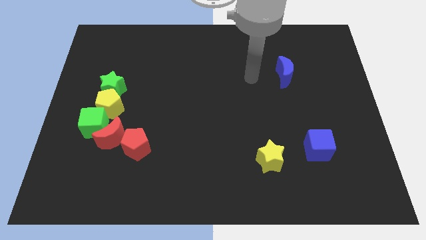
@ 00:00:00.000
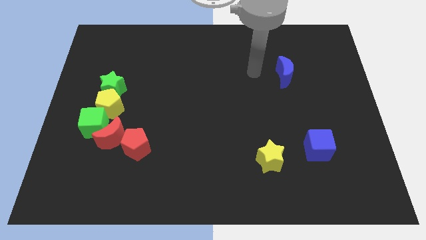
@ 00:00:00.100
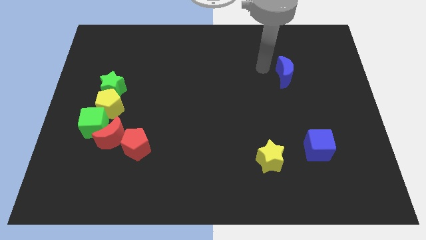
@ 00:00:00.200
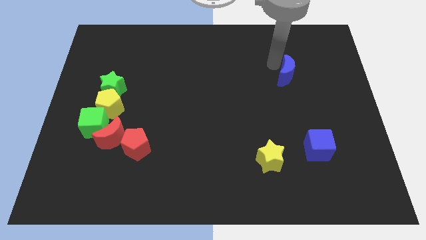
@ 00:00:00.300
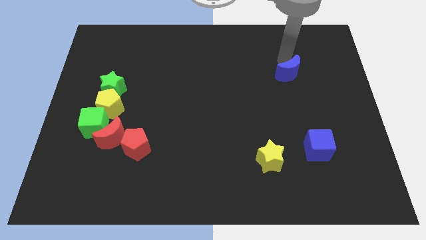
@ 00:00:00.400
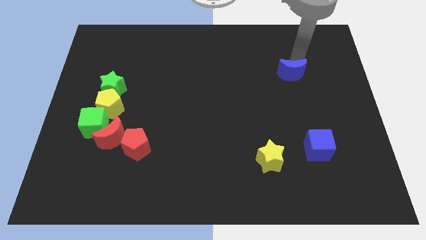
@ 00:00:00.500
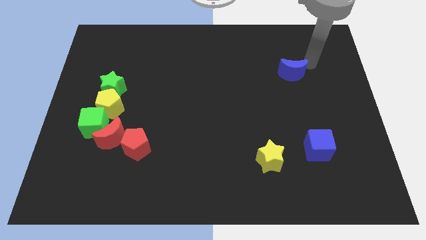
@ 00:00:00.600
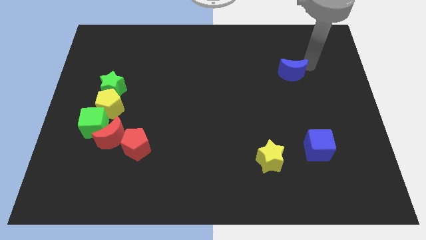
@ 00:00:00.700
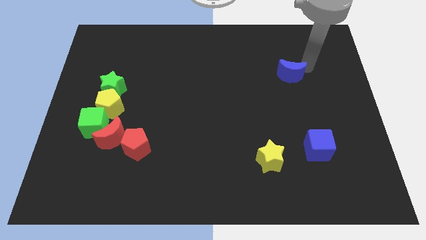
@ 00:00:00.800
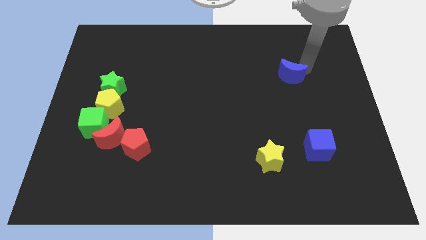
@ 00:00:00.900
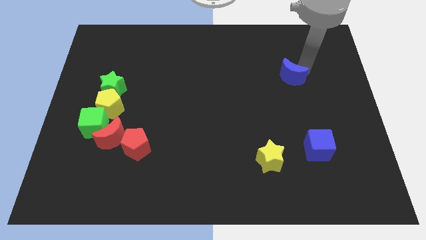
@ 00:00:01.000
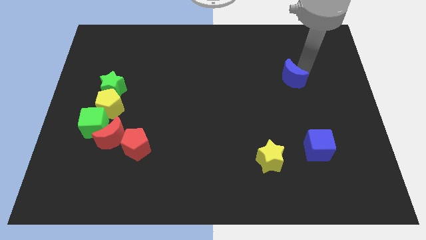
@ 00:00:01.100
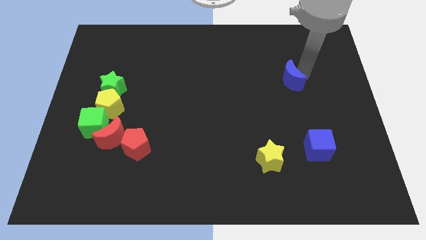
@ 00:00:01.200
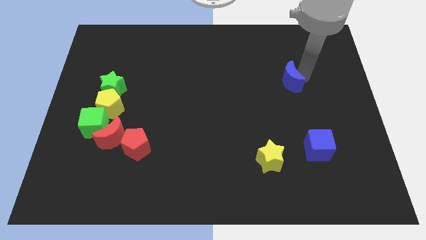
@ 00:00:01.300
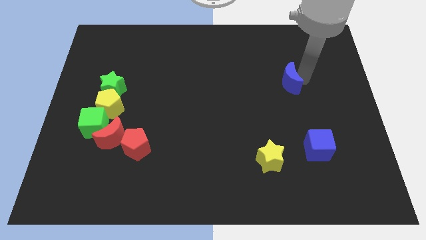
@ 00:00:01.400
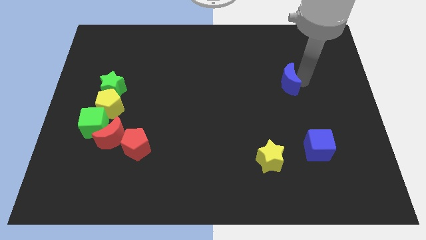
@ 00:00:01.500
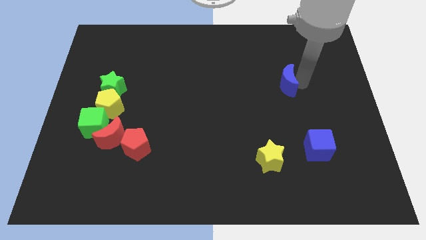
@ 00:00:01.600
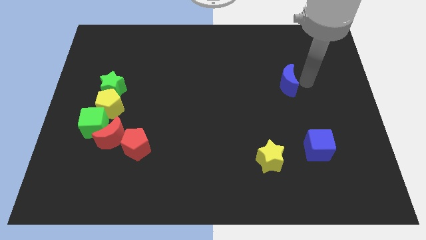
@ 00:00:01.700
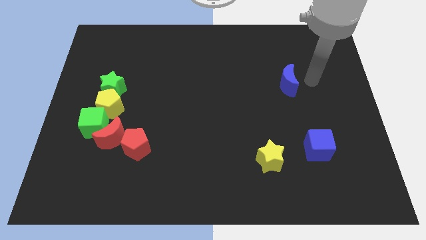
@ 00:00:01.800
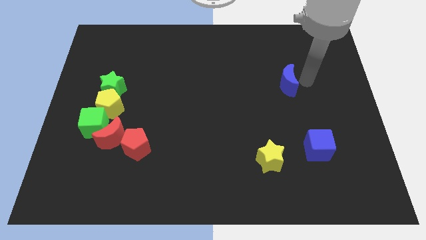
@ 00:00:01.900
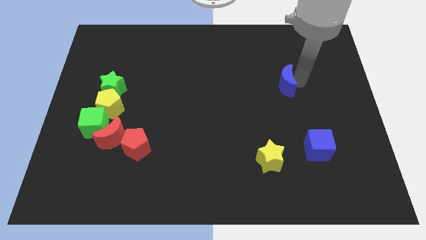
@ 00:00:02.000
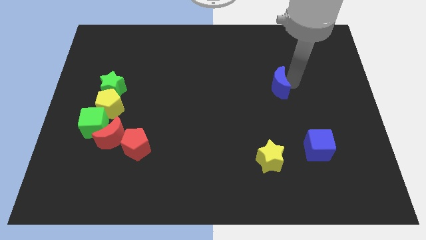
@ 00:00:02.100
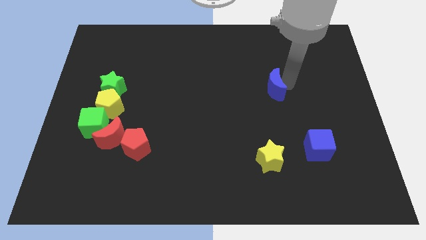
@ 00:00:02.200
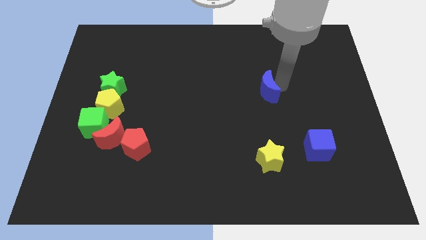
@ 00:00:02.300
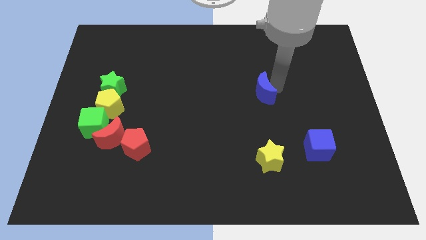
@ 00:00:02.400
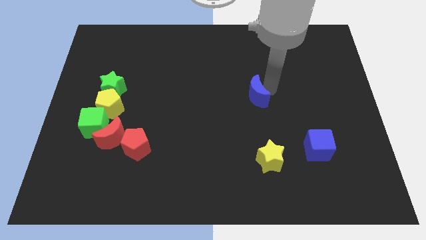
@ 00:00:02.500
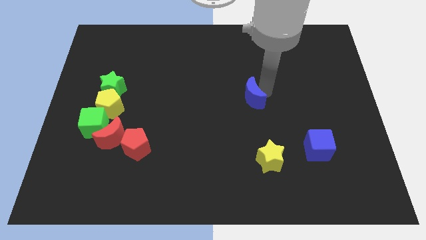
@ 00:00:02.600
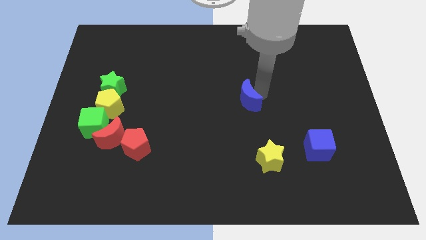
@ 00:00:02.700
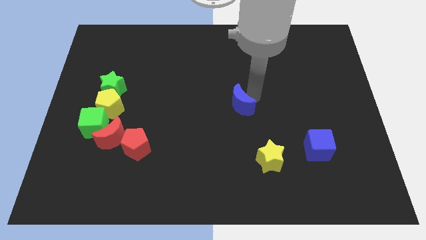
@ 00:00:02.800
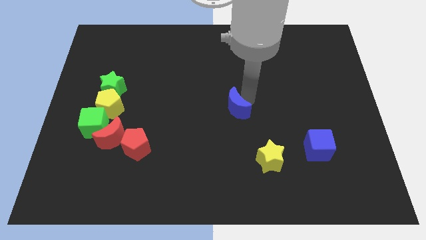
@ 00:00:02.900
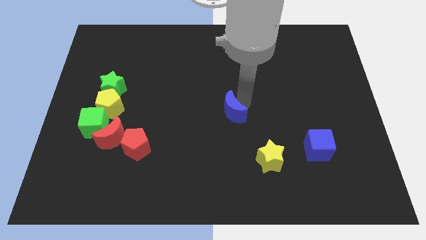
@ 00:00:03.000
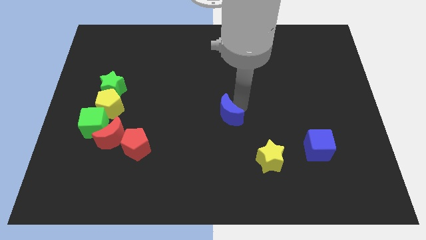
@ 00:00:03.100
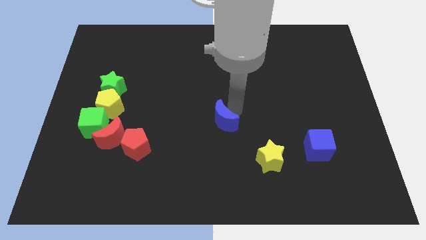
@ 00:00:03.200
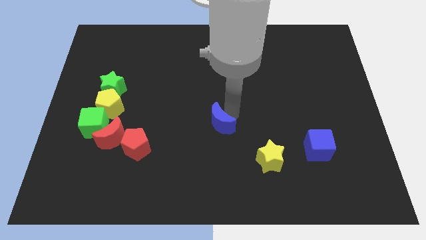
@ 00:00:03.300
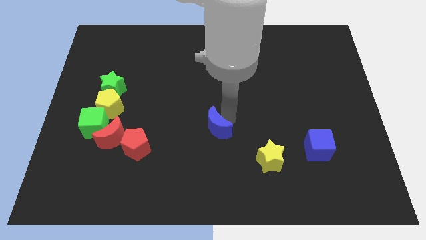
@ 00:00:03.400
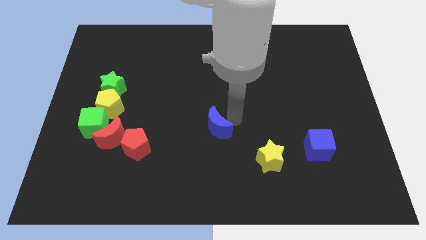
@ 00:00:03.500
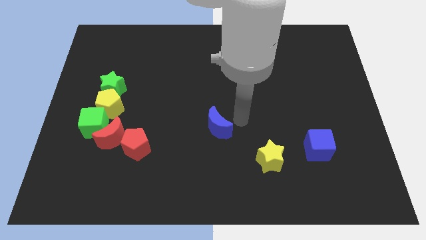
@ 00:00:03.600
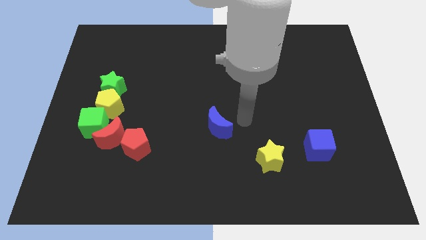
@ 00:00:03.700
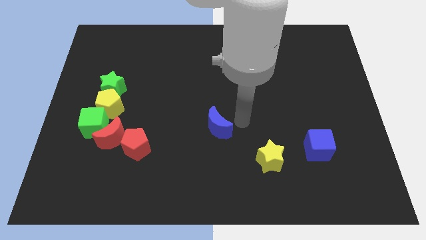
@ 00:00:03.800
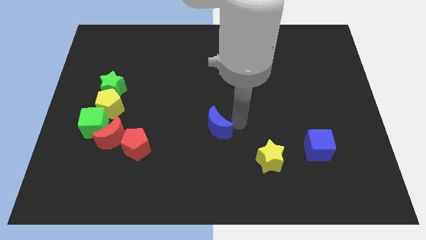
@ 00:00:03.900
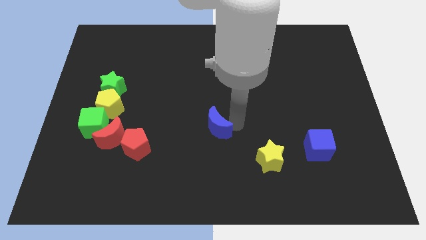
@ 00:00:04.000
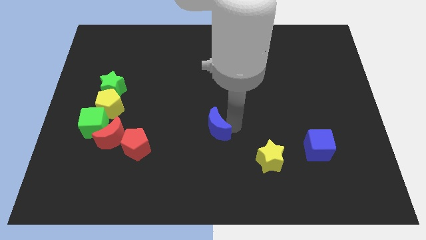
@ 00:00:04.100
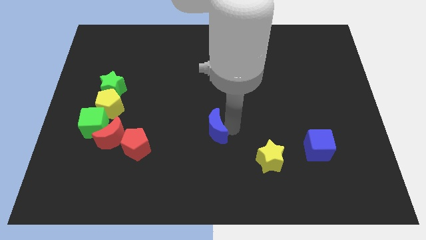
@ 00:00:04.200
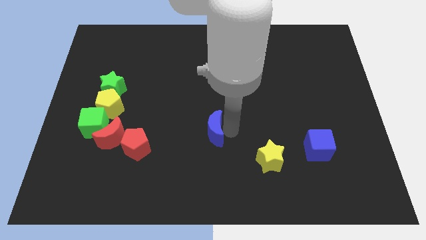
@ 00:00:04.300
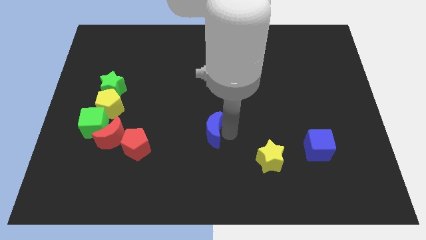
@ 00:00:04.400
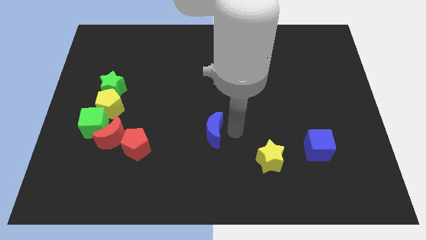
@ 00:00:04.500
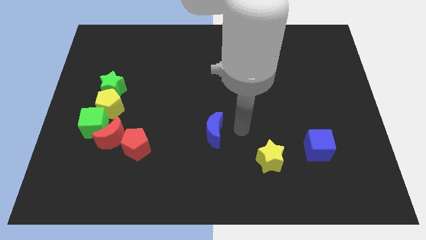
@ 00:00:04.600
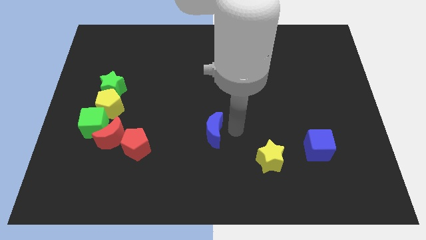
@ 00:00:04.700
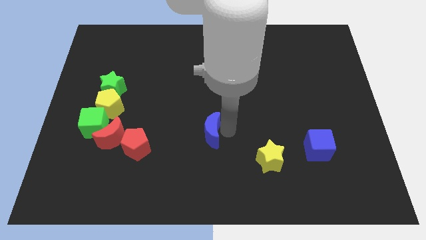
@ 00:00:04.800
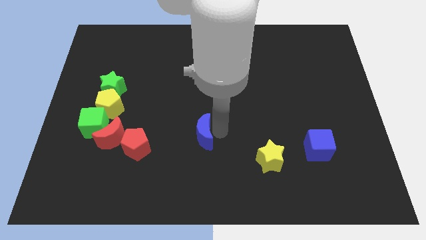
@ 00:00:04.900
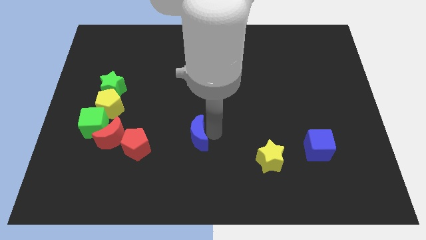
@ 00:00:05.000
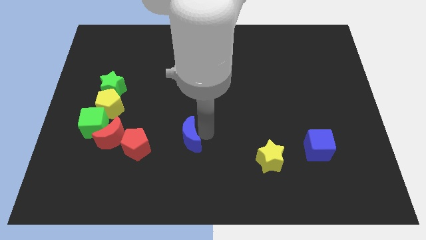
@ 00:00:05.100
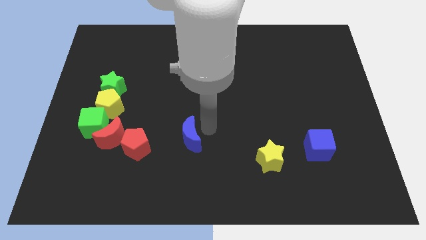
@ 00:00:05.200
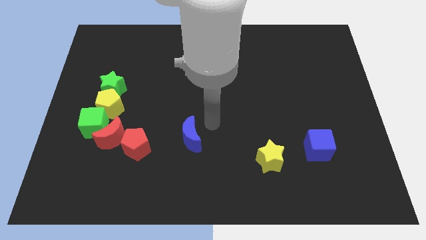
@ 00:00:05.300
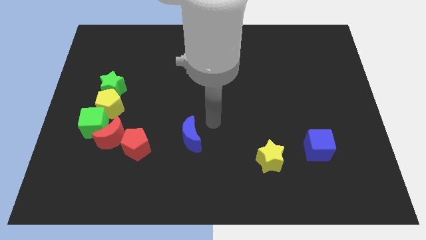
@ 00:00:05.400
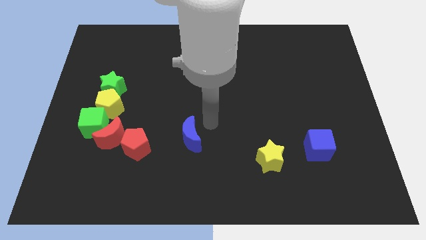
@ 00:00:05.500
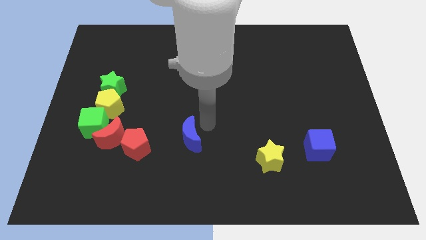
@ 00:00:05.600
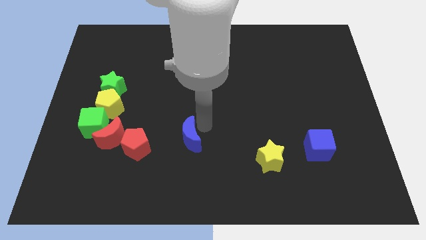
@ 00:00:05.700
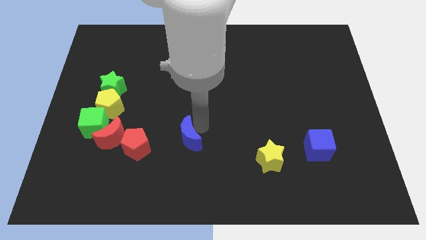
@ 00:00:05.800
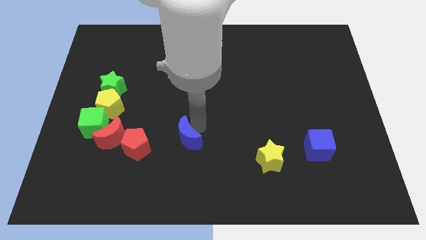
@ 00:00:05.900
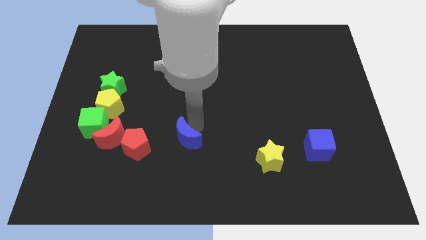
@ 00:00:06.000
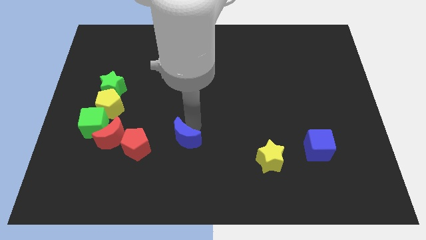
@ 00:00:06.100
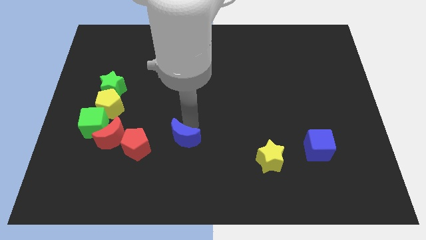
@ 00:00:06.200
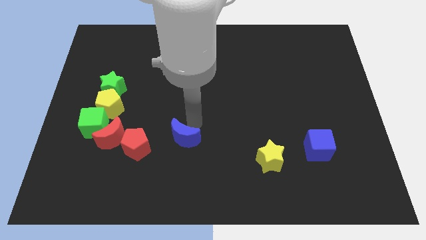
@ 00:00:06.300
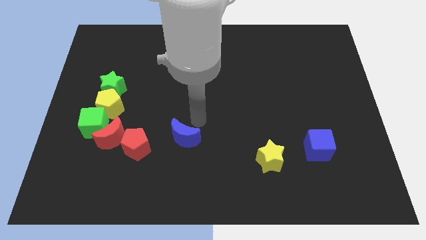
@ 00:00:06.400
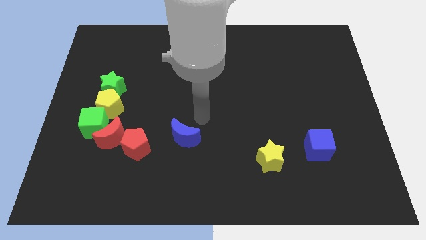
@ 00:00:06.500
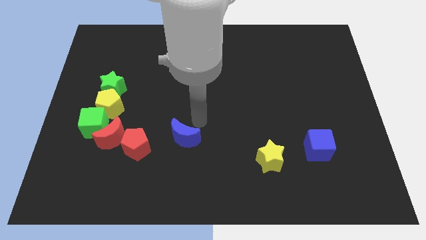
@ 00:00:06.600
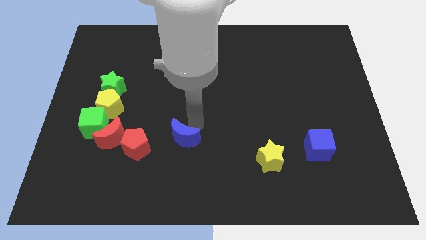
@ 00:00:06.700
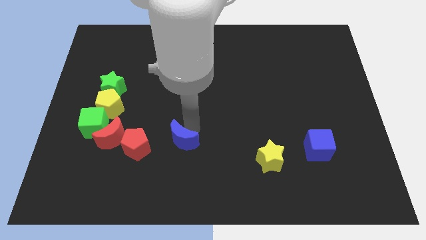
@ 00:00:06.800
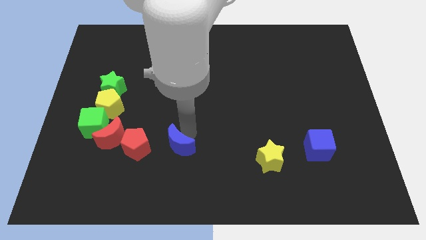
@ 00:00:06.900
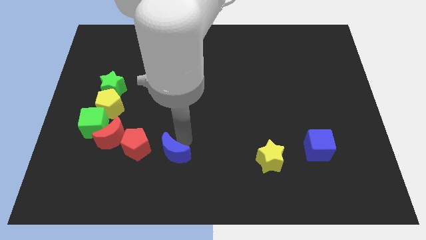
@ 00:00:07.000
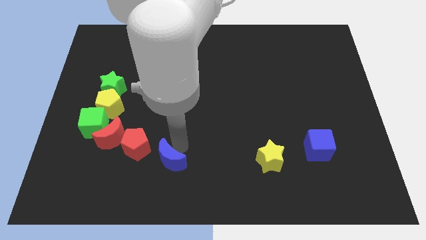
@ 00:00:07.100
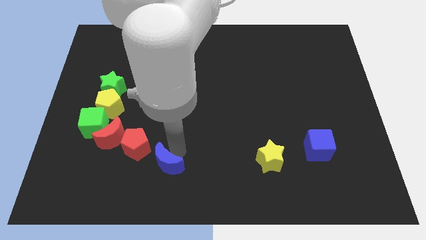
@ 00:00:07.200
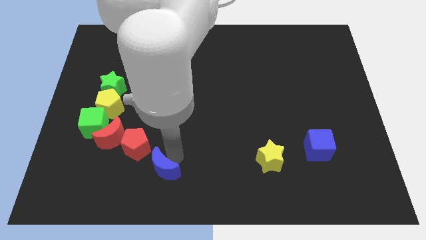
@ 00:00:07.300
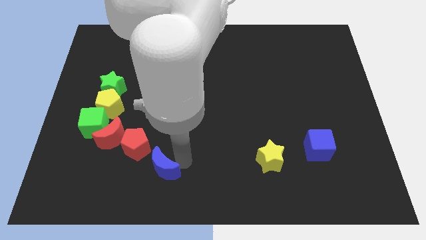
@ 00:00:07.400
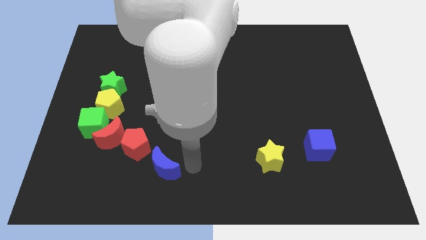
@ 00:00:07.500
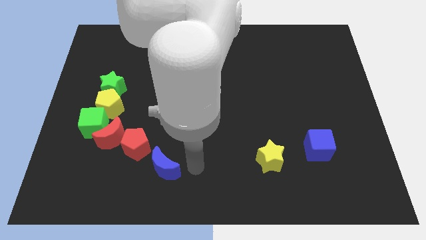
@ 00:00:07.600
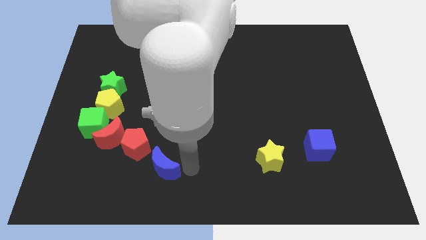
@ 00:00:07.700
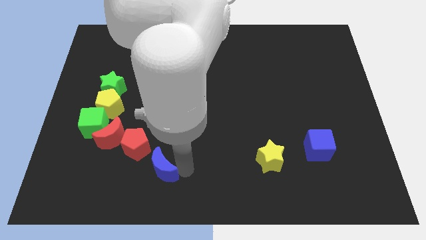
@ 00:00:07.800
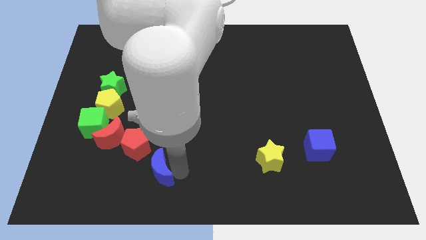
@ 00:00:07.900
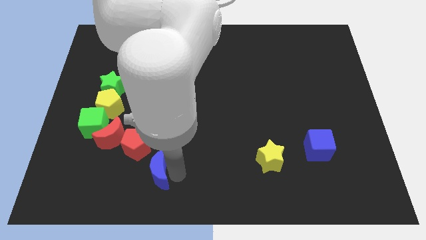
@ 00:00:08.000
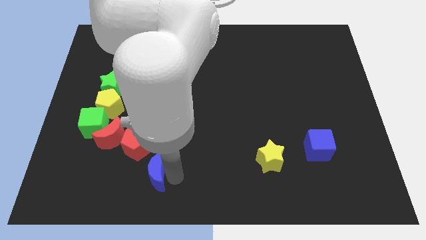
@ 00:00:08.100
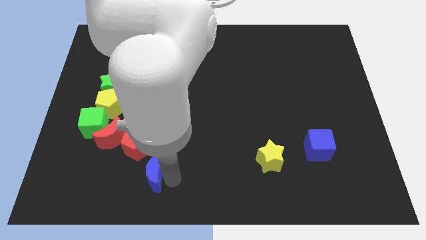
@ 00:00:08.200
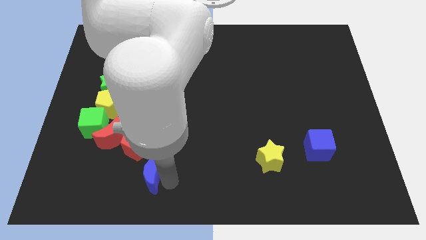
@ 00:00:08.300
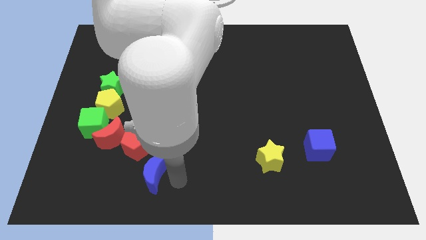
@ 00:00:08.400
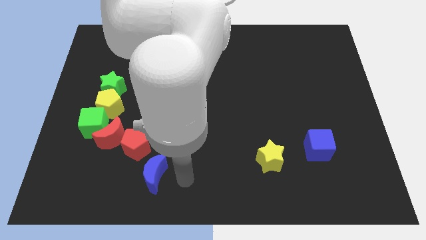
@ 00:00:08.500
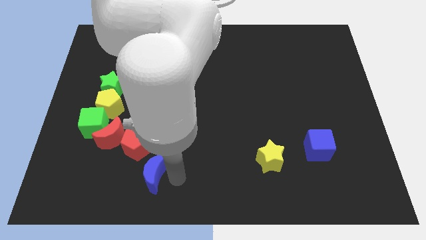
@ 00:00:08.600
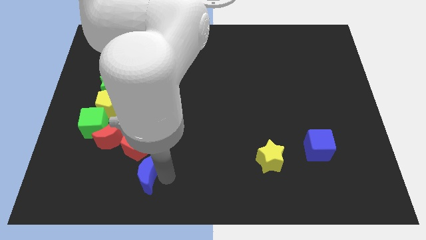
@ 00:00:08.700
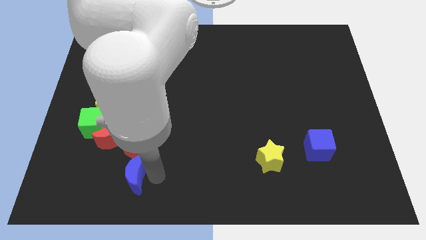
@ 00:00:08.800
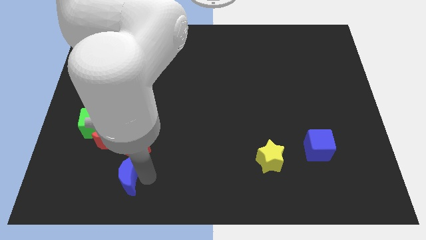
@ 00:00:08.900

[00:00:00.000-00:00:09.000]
push the blue moon to the bottom left side of the red pentagon
